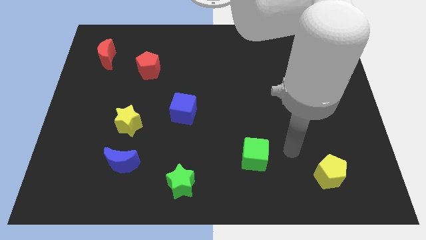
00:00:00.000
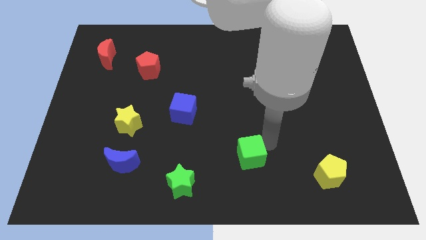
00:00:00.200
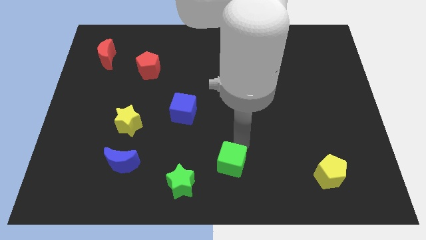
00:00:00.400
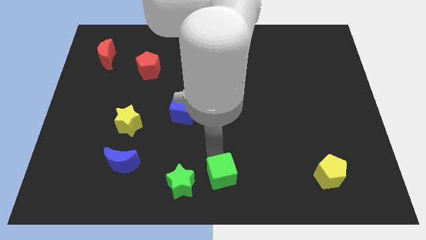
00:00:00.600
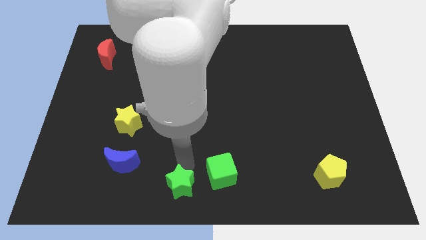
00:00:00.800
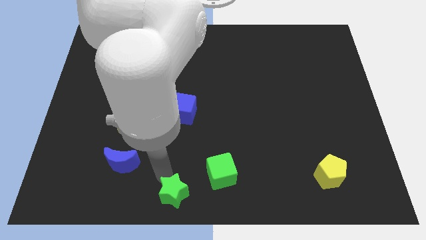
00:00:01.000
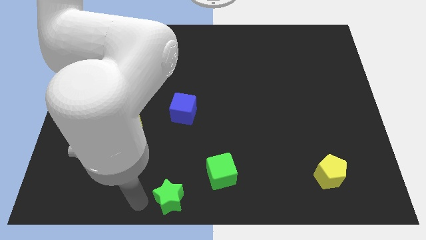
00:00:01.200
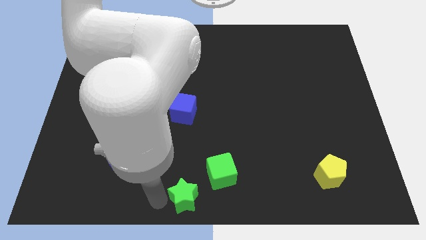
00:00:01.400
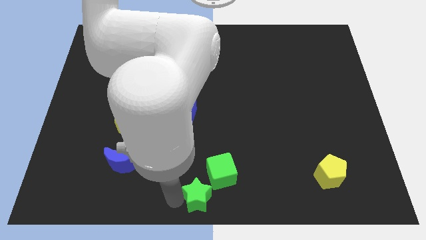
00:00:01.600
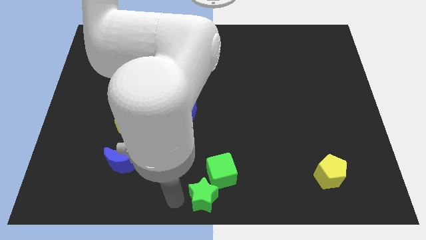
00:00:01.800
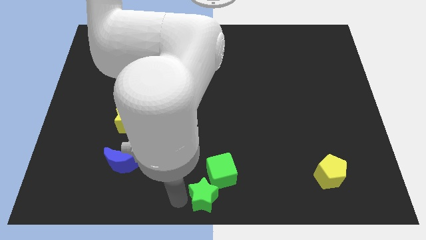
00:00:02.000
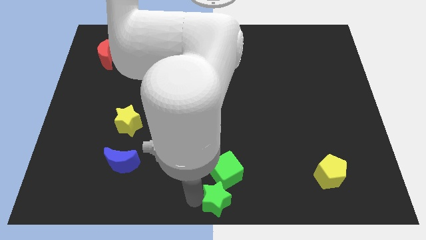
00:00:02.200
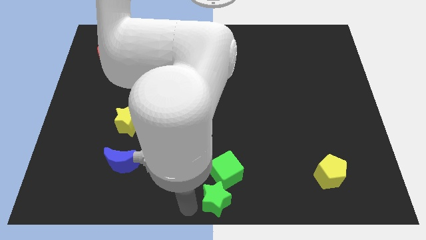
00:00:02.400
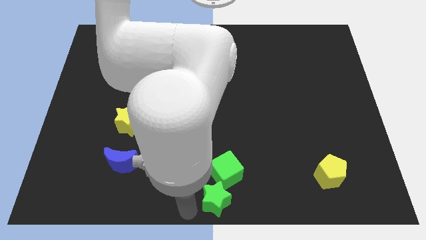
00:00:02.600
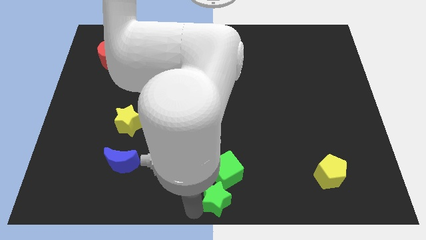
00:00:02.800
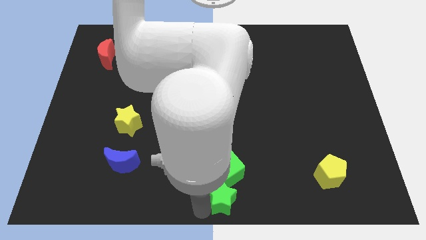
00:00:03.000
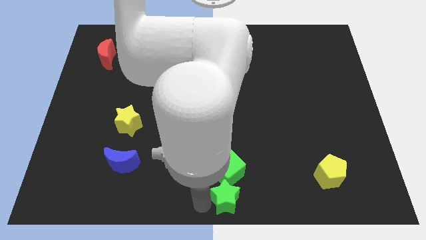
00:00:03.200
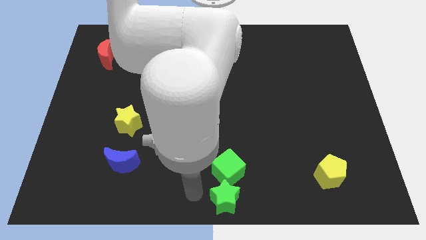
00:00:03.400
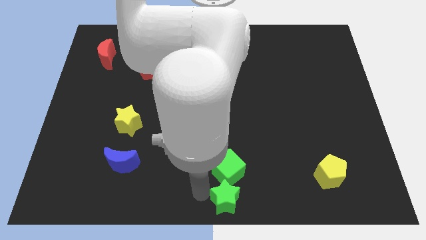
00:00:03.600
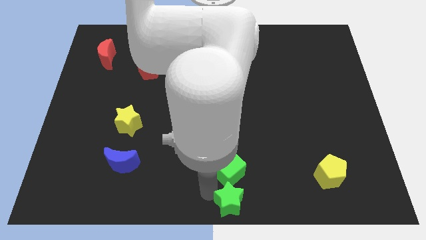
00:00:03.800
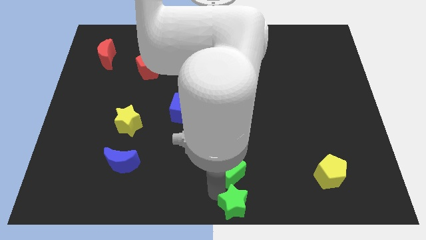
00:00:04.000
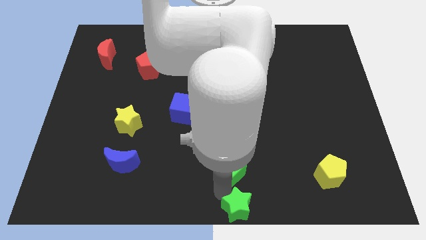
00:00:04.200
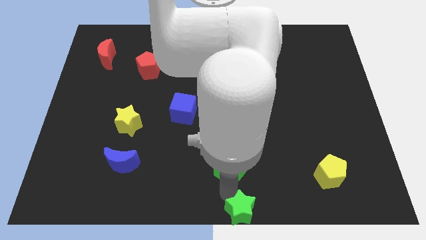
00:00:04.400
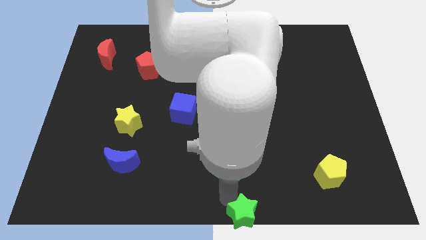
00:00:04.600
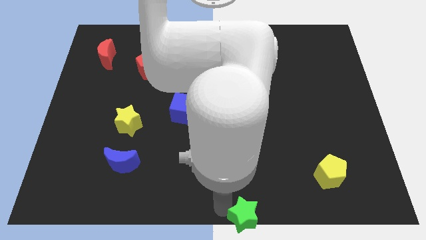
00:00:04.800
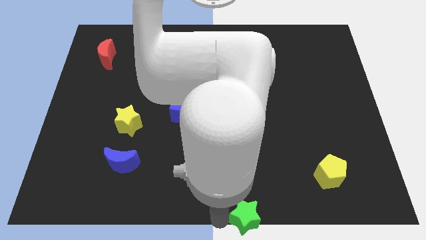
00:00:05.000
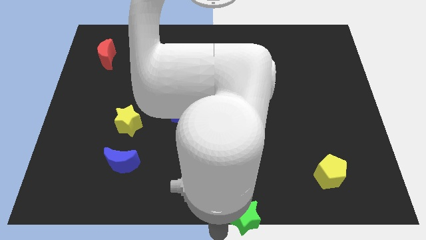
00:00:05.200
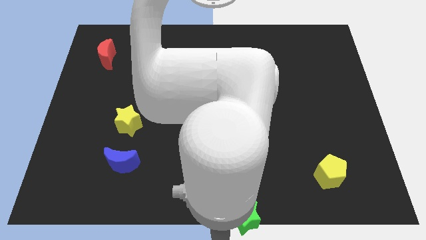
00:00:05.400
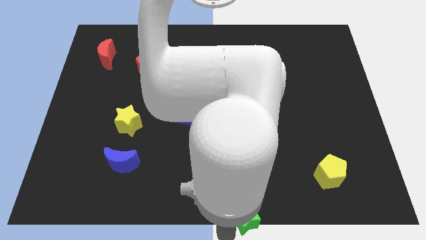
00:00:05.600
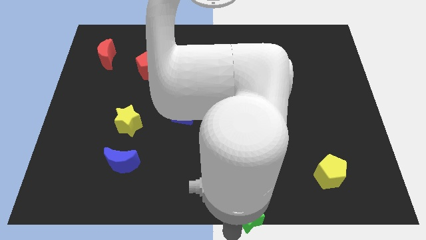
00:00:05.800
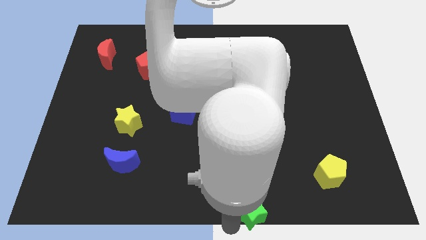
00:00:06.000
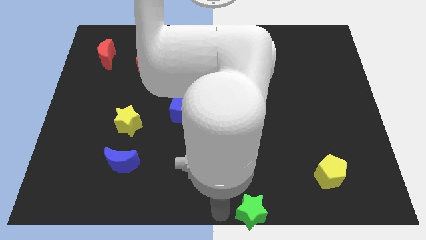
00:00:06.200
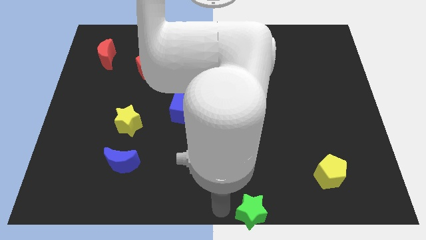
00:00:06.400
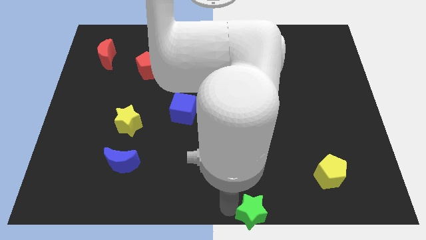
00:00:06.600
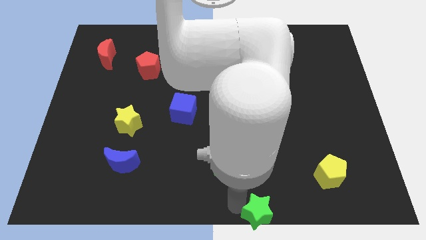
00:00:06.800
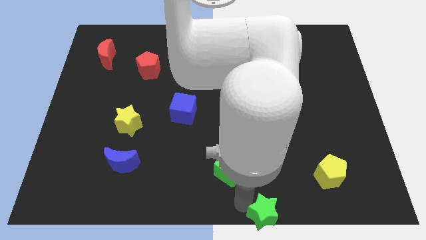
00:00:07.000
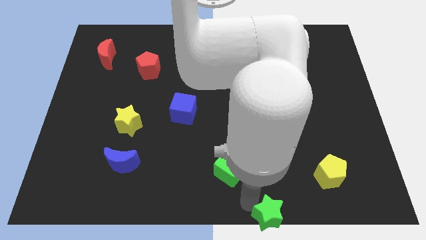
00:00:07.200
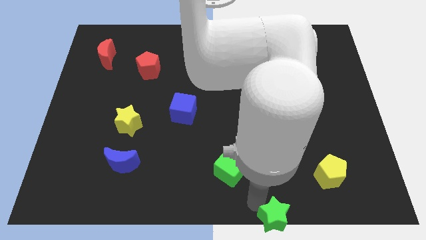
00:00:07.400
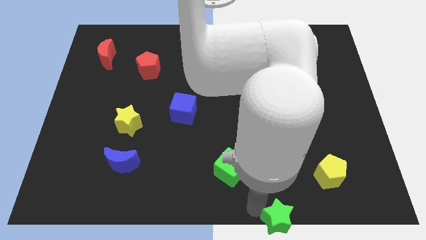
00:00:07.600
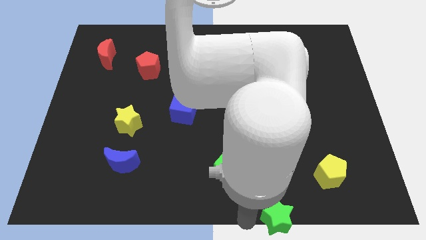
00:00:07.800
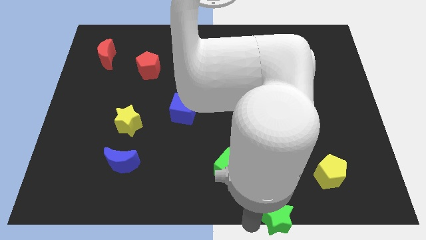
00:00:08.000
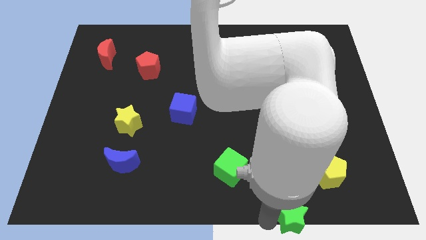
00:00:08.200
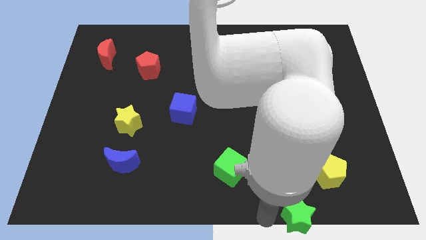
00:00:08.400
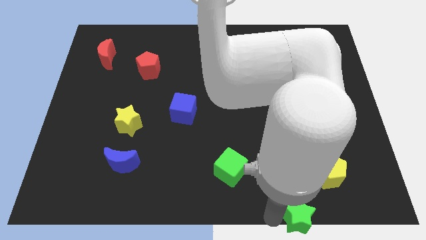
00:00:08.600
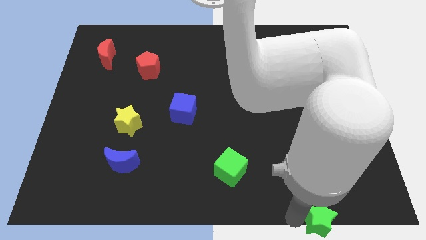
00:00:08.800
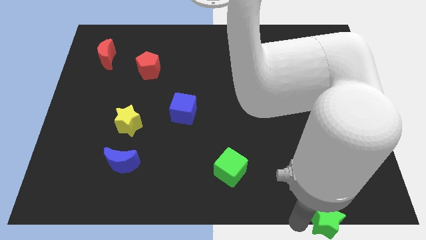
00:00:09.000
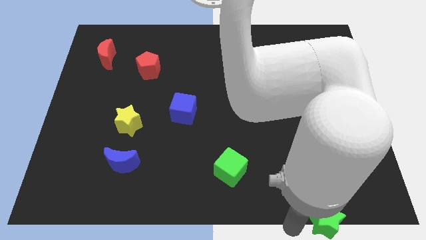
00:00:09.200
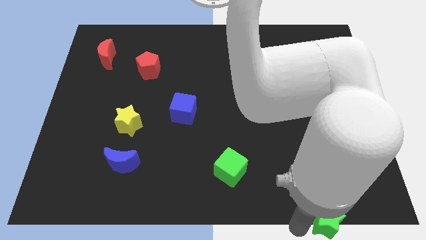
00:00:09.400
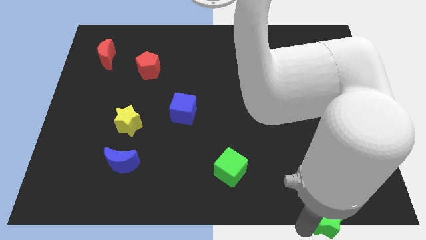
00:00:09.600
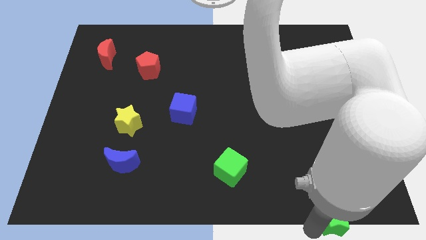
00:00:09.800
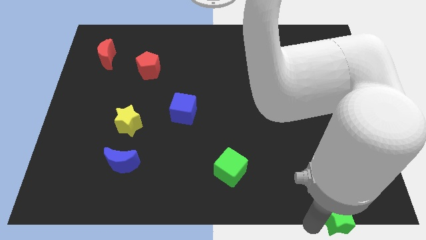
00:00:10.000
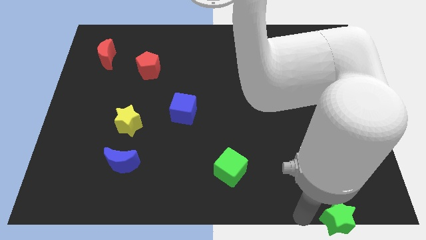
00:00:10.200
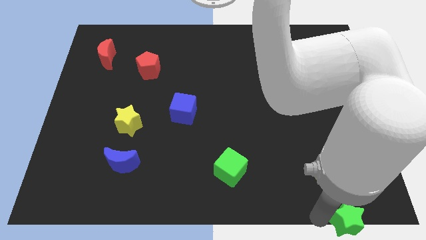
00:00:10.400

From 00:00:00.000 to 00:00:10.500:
put the green star to the bottom right
